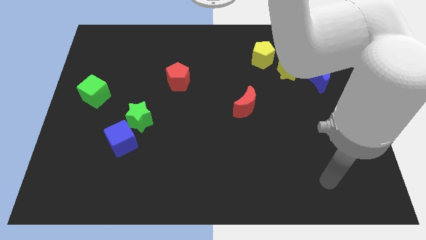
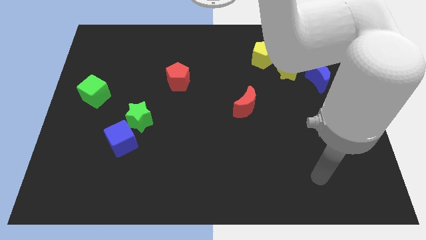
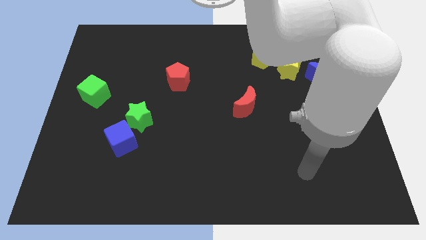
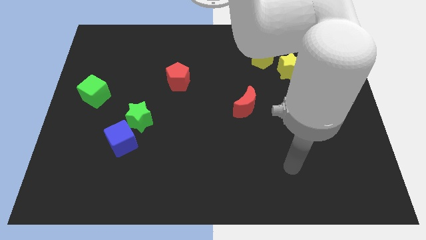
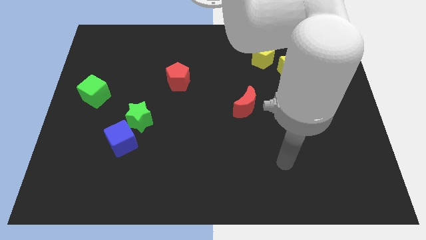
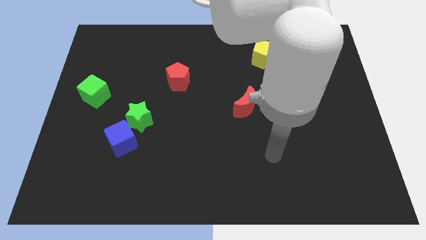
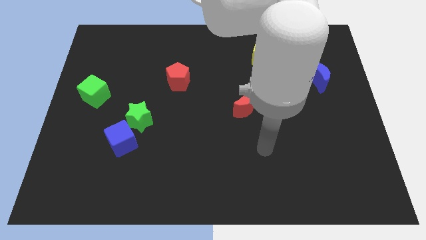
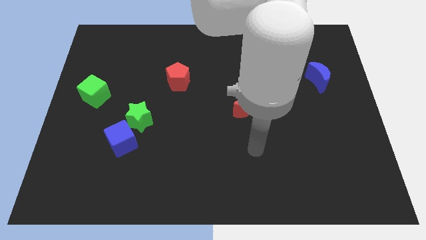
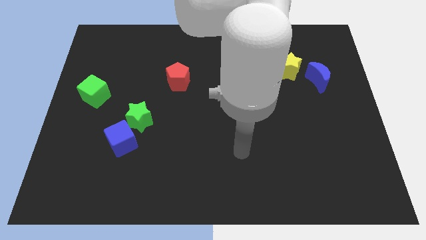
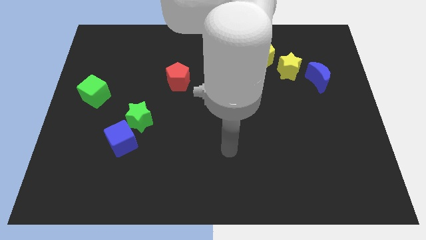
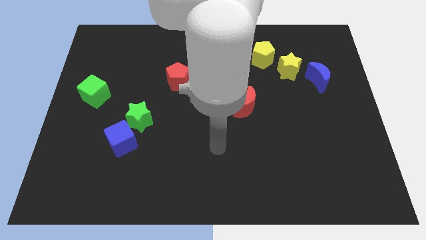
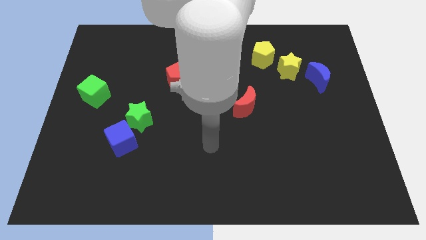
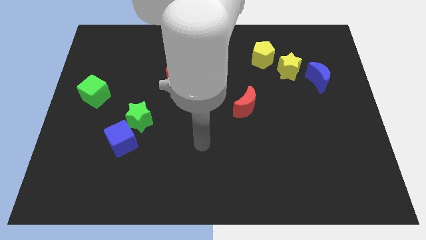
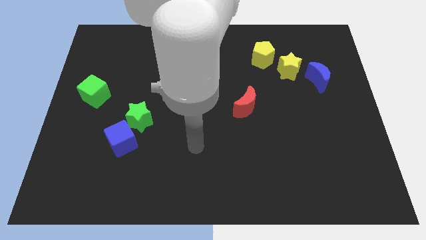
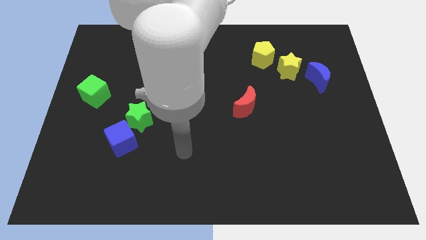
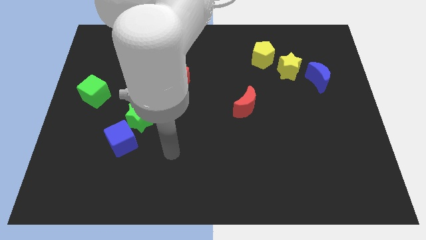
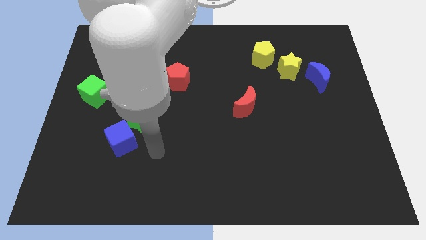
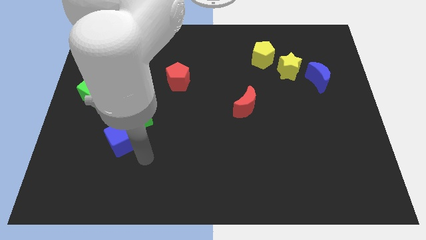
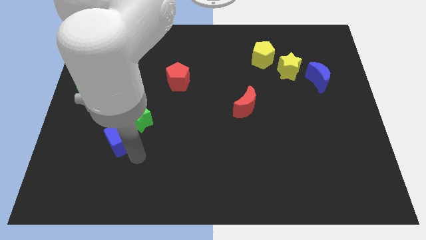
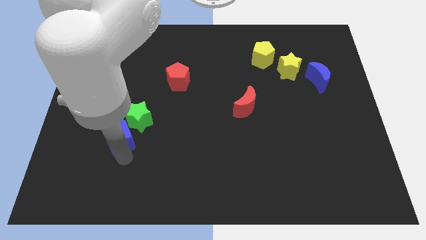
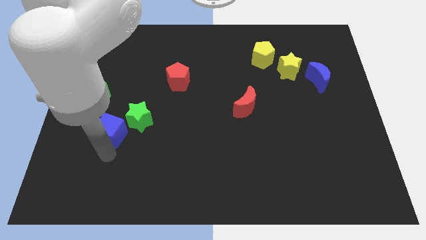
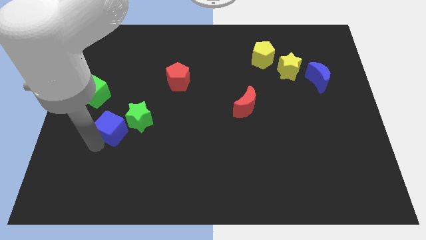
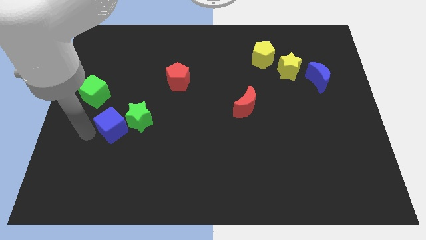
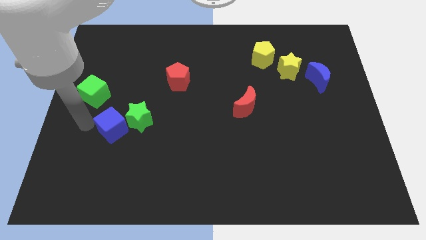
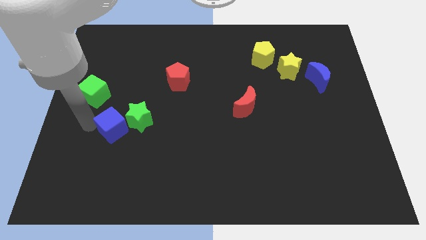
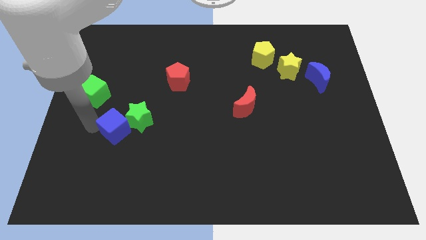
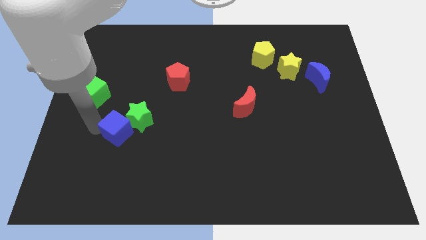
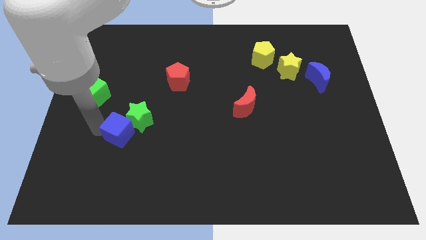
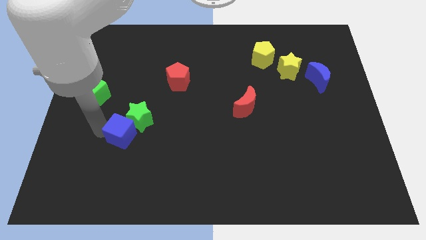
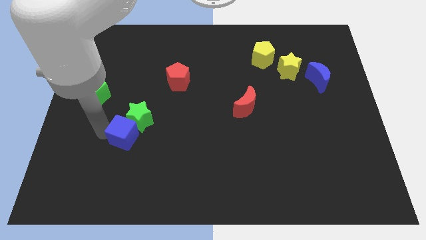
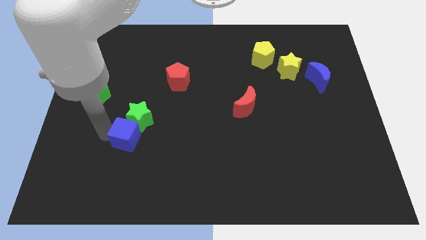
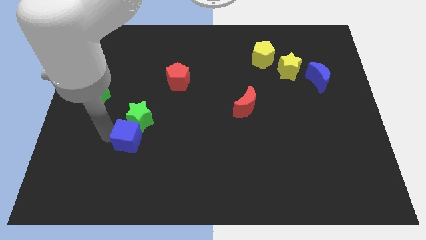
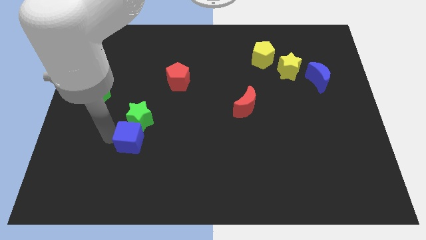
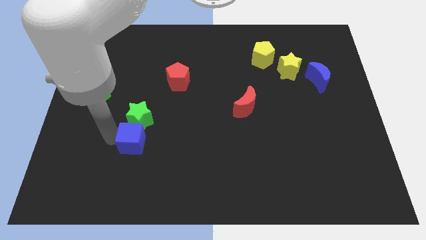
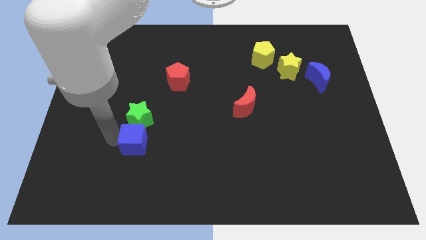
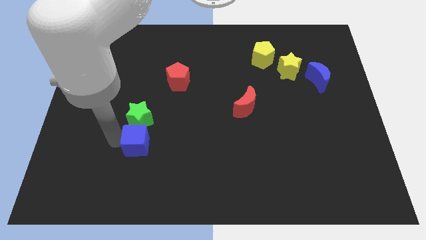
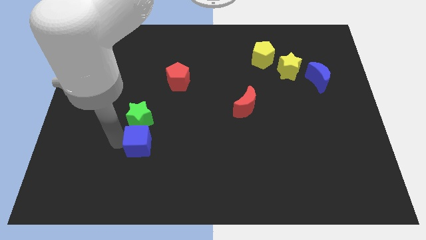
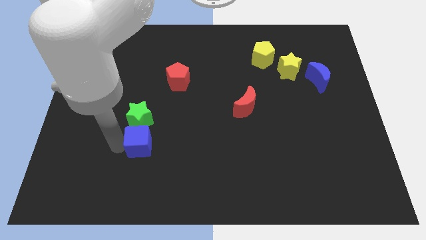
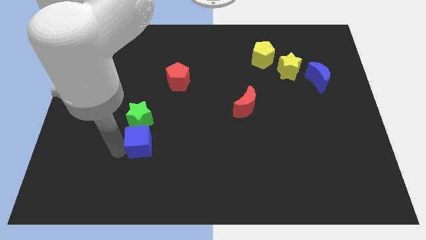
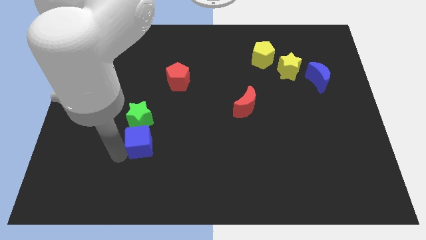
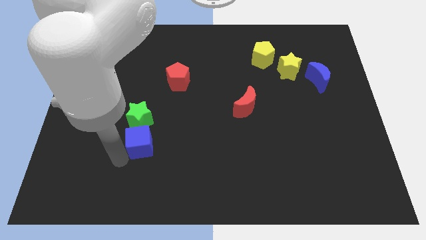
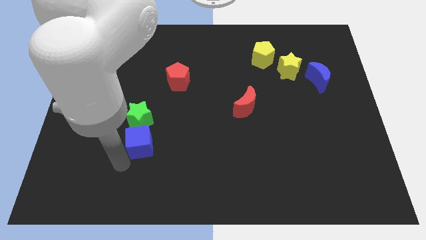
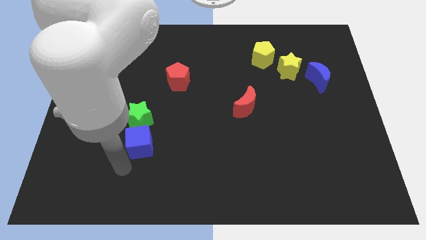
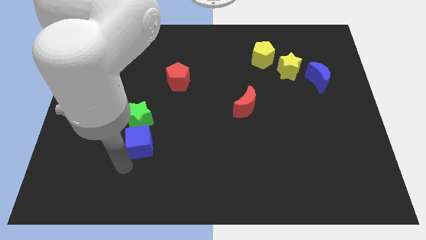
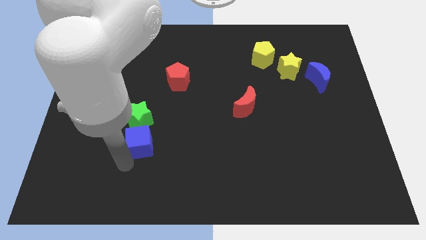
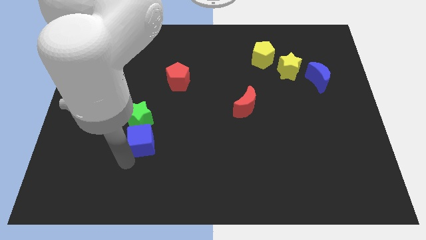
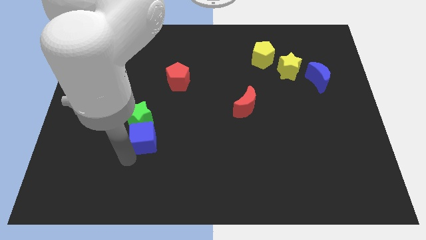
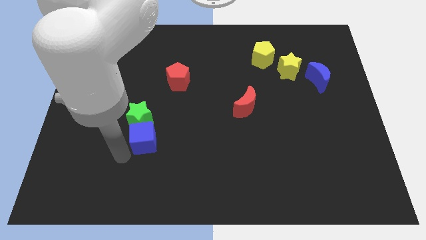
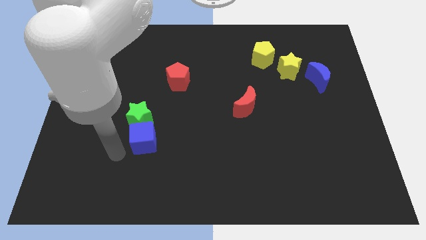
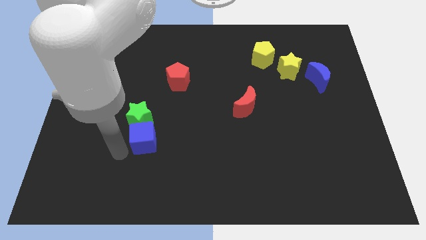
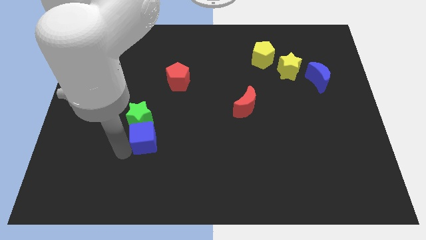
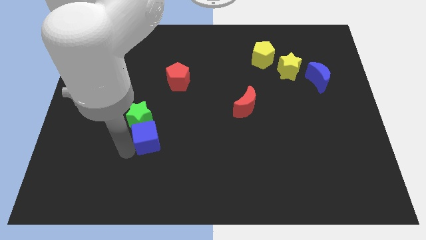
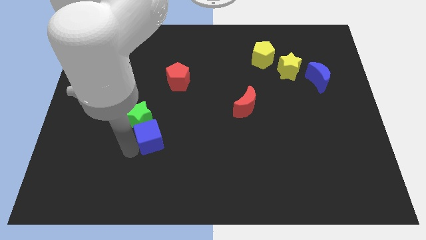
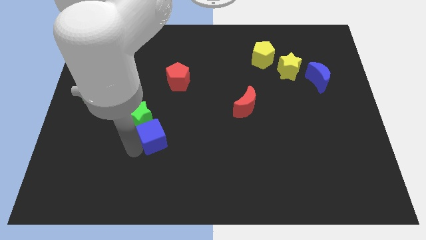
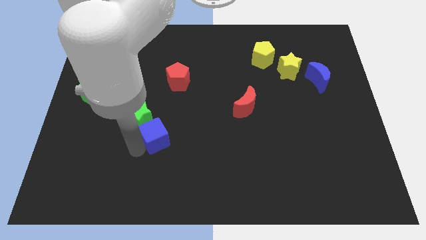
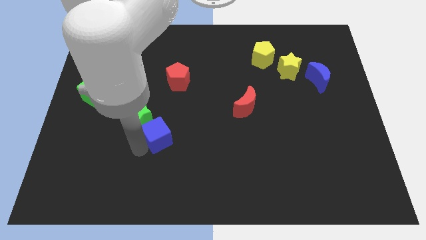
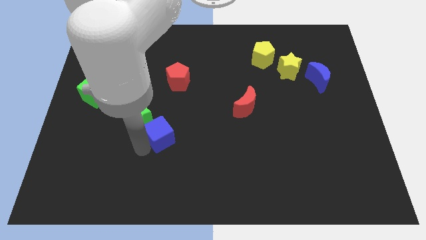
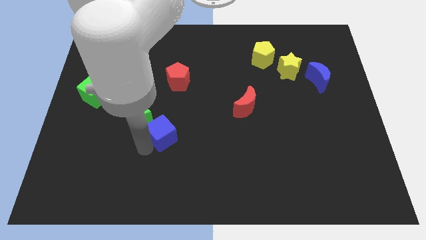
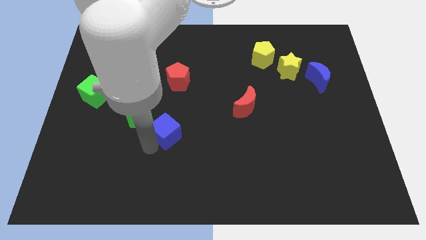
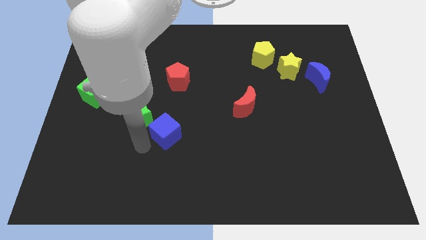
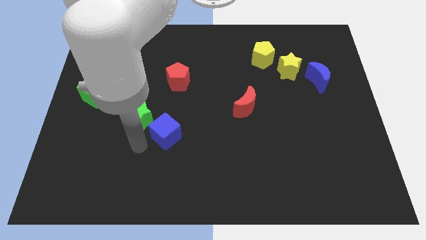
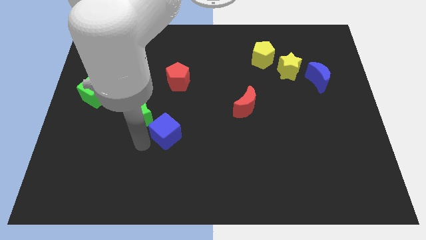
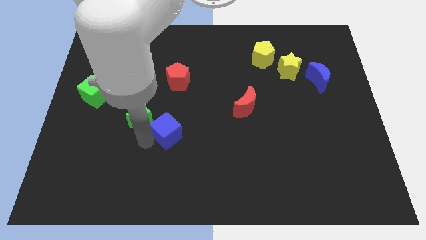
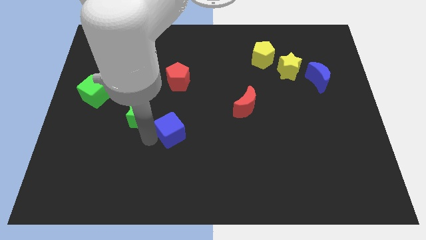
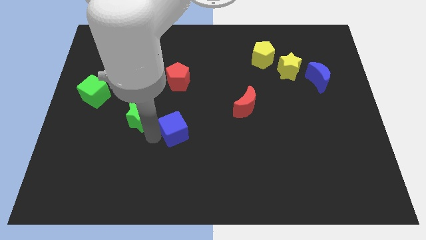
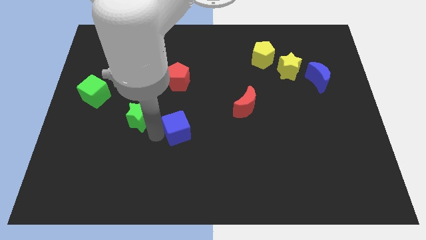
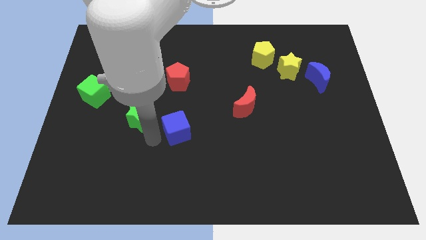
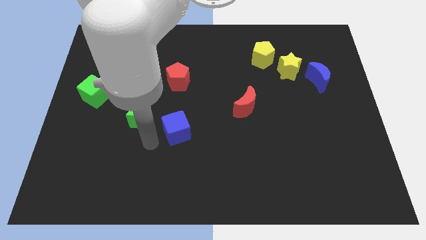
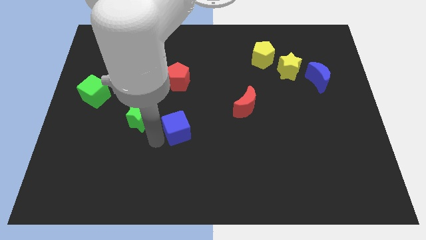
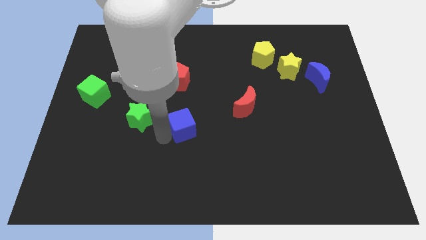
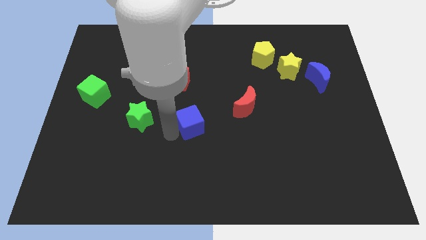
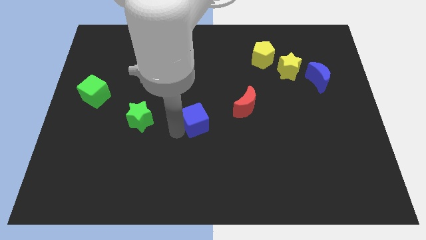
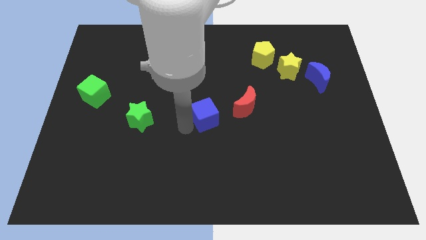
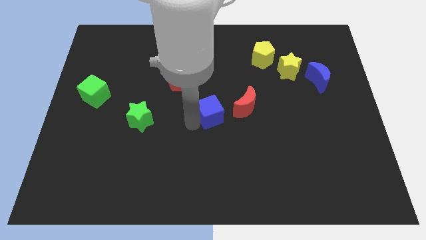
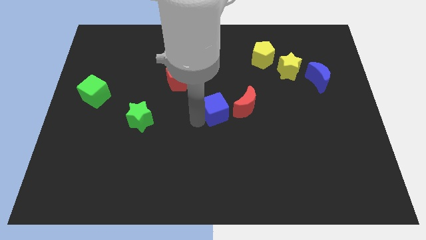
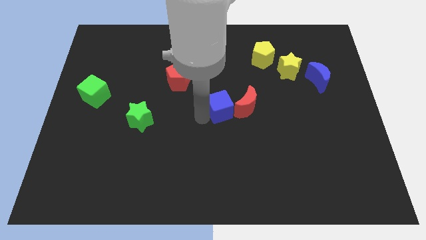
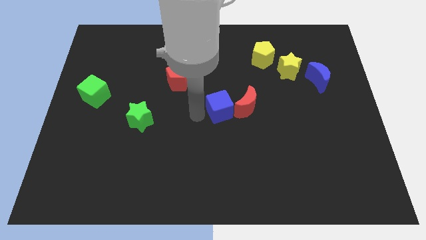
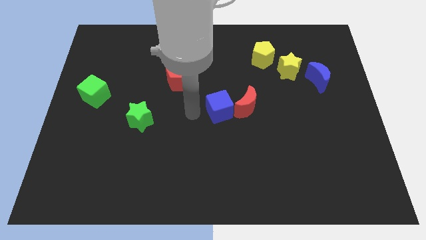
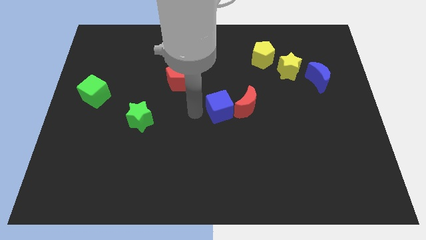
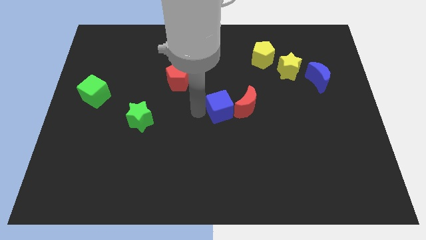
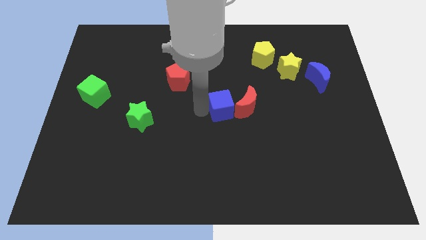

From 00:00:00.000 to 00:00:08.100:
slide the blue cube next to the red moon
